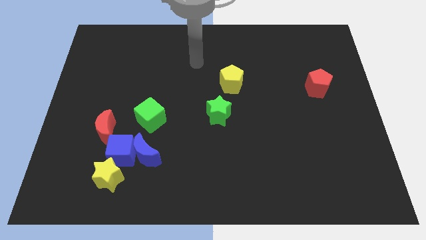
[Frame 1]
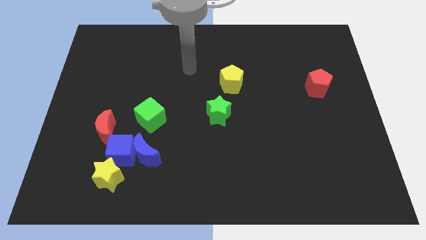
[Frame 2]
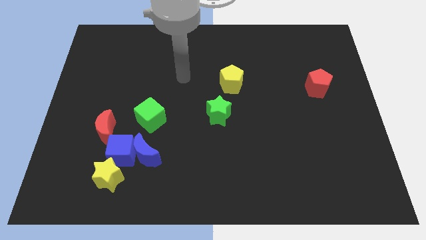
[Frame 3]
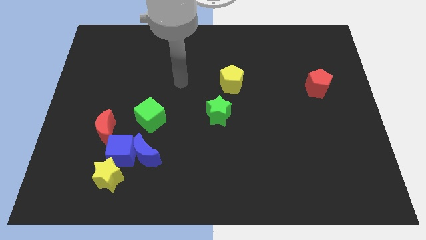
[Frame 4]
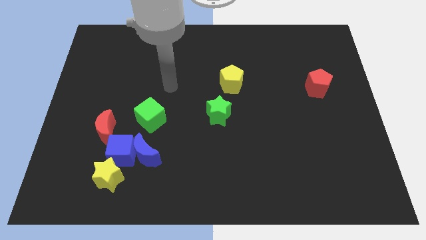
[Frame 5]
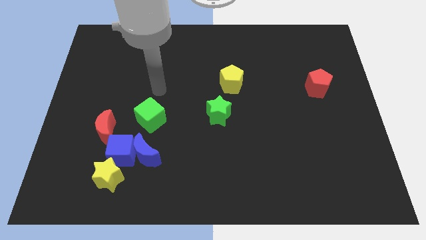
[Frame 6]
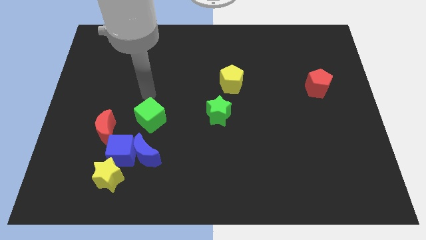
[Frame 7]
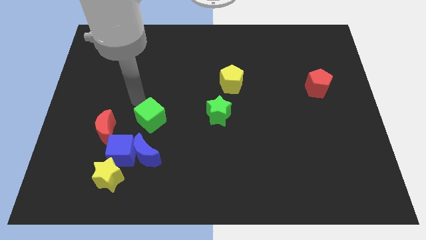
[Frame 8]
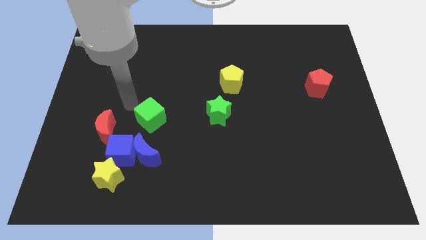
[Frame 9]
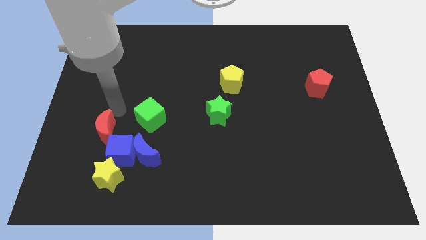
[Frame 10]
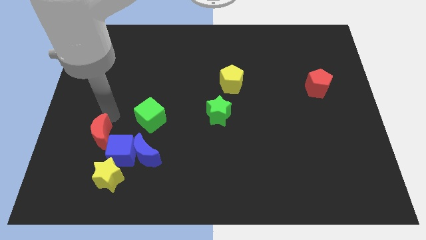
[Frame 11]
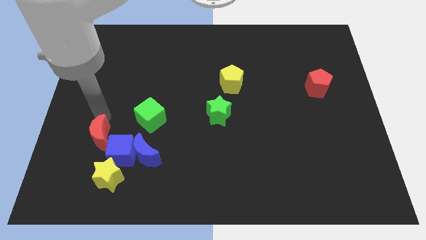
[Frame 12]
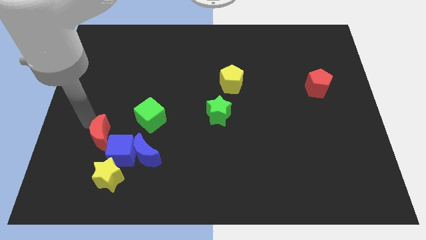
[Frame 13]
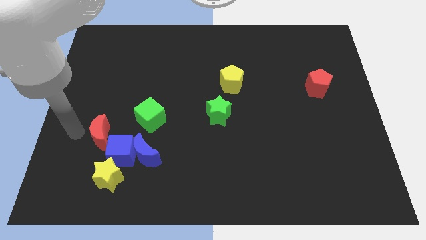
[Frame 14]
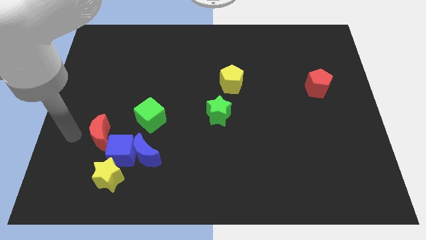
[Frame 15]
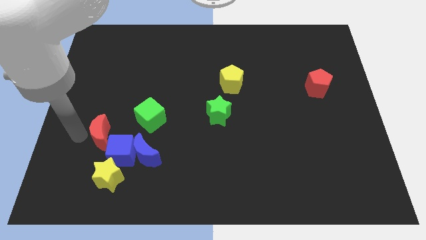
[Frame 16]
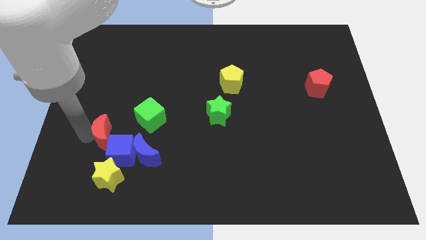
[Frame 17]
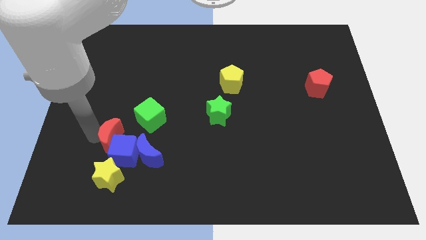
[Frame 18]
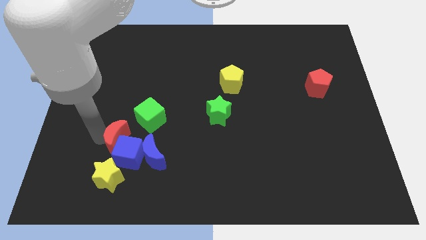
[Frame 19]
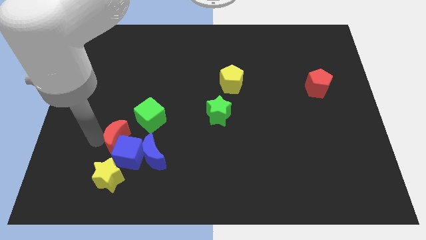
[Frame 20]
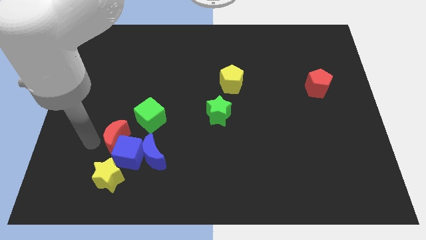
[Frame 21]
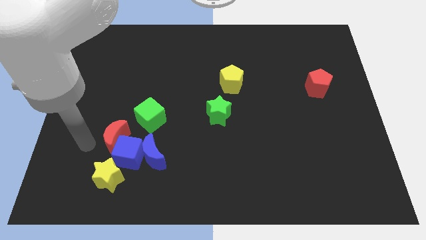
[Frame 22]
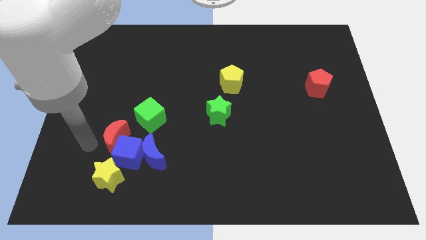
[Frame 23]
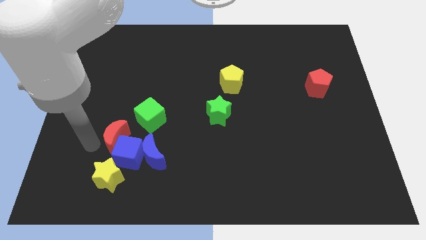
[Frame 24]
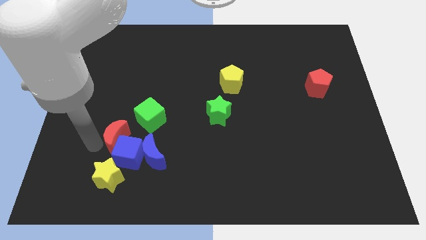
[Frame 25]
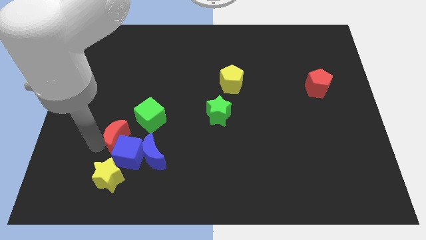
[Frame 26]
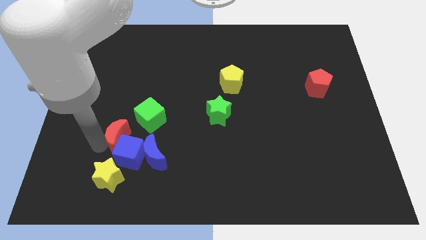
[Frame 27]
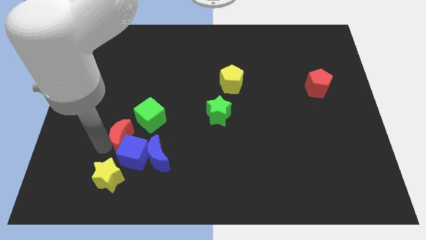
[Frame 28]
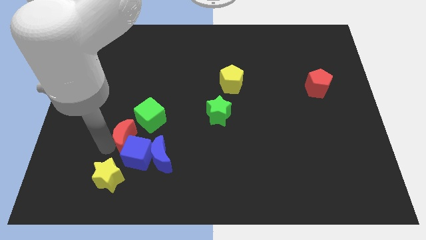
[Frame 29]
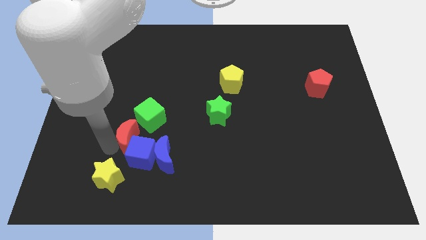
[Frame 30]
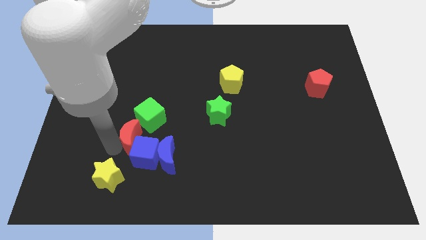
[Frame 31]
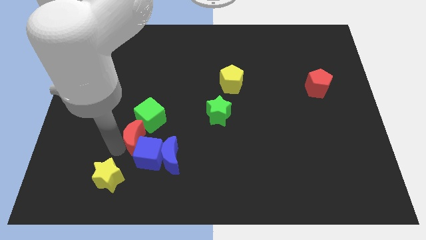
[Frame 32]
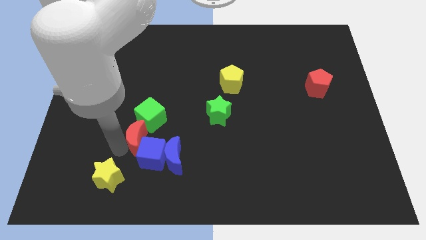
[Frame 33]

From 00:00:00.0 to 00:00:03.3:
push the red moon slightly right

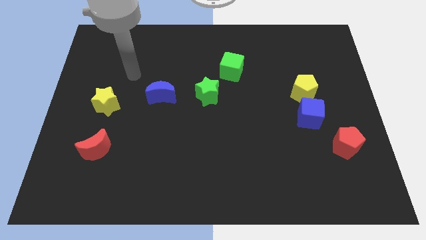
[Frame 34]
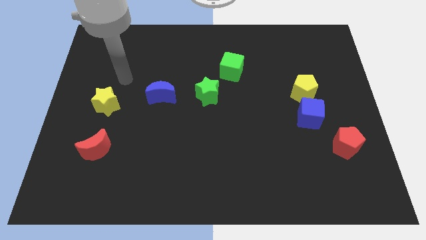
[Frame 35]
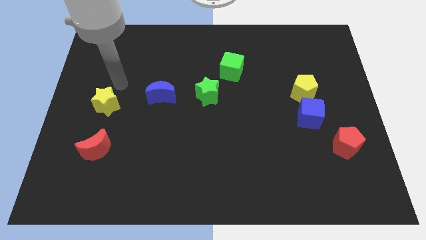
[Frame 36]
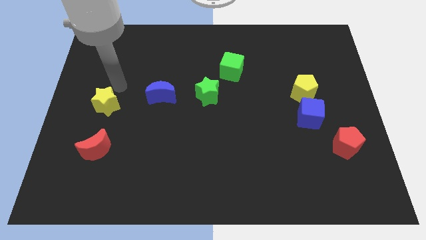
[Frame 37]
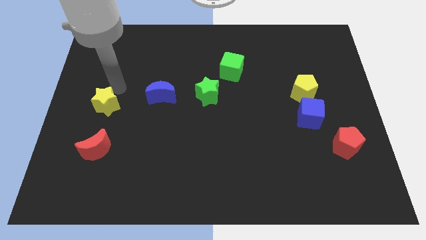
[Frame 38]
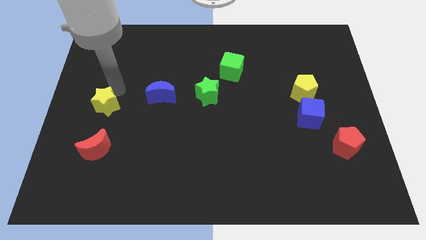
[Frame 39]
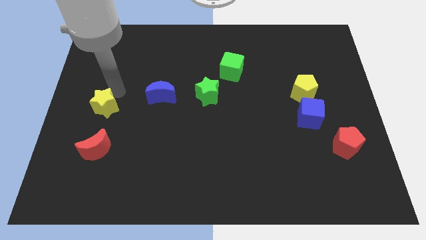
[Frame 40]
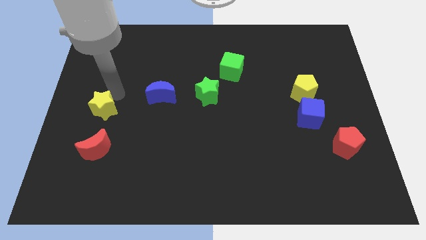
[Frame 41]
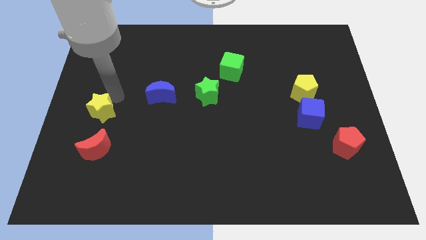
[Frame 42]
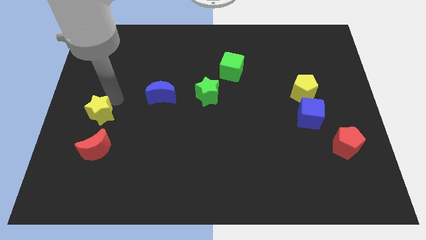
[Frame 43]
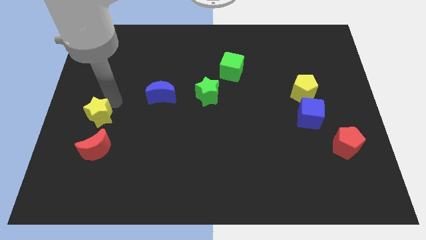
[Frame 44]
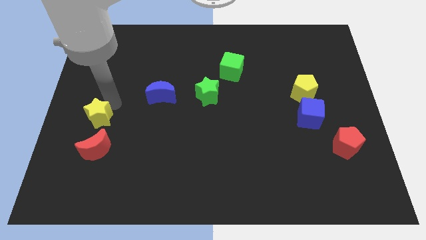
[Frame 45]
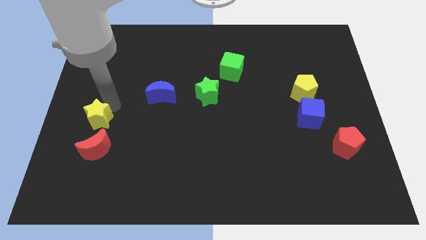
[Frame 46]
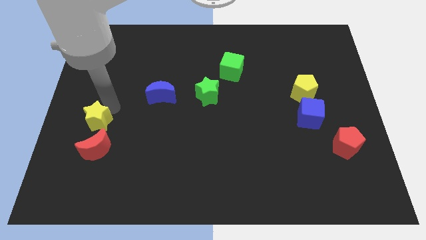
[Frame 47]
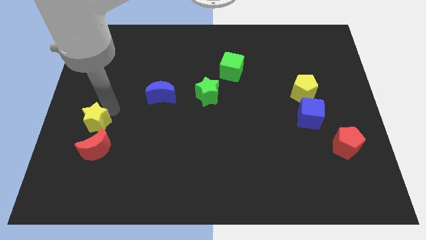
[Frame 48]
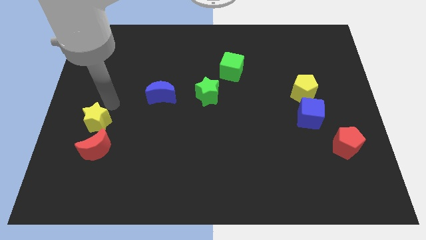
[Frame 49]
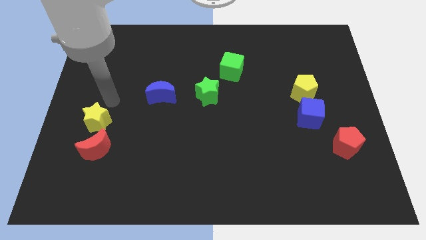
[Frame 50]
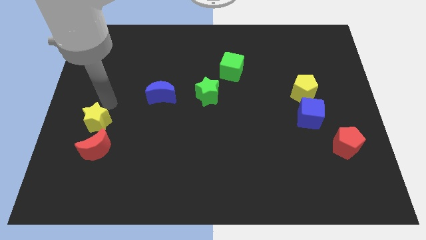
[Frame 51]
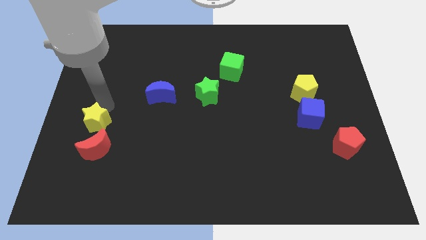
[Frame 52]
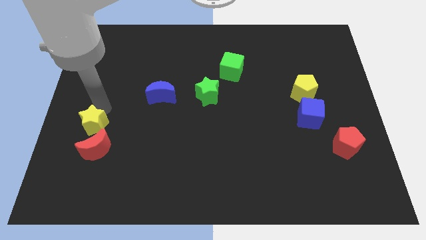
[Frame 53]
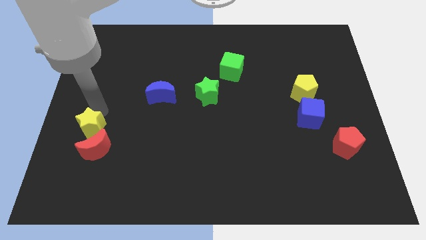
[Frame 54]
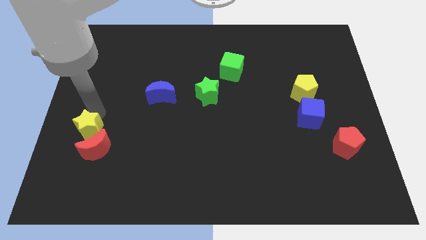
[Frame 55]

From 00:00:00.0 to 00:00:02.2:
push the yellow star slightly down

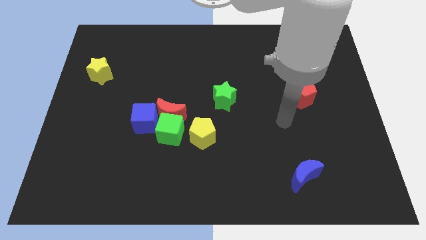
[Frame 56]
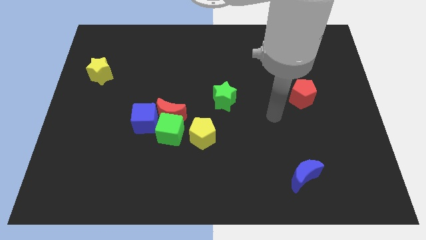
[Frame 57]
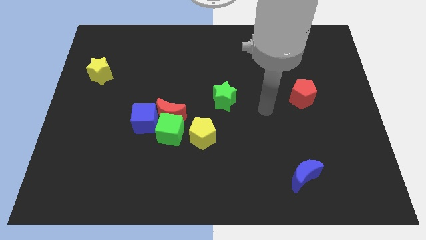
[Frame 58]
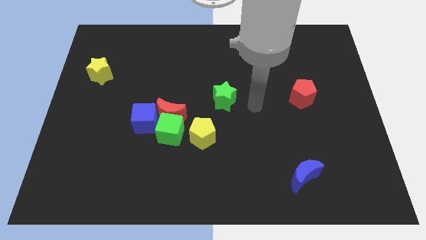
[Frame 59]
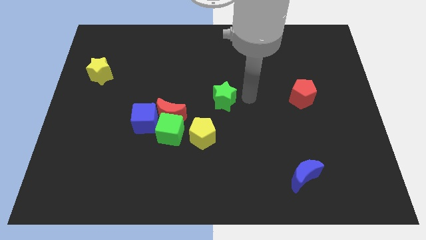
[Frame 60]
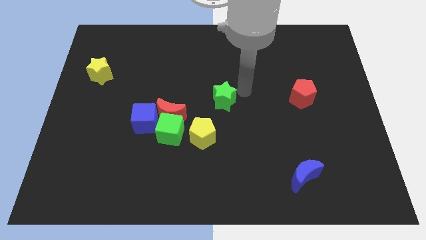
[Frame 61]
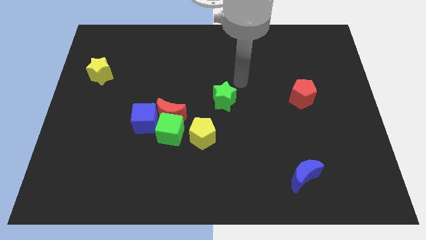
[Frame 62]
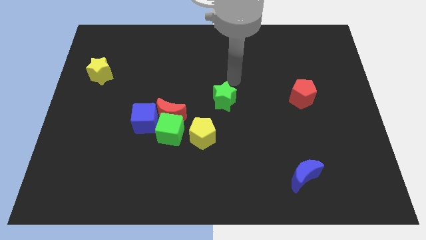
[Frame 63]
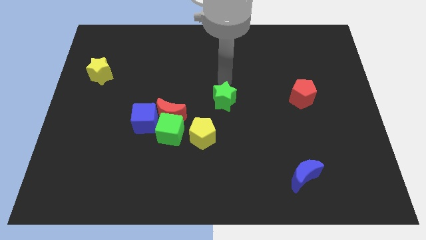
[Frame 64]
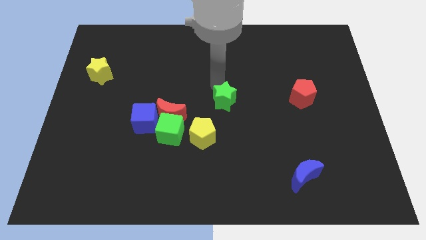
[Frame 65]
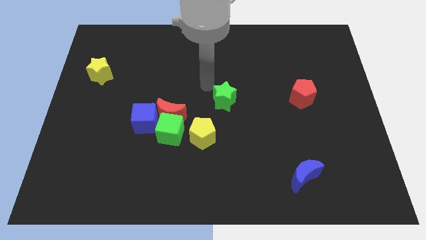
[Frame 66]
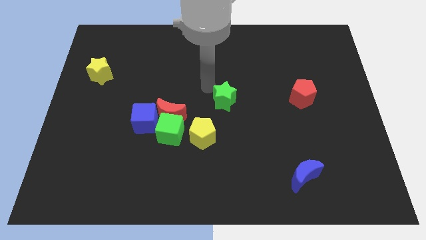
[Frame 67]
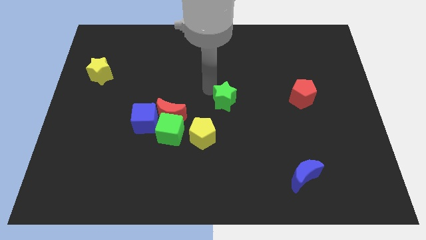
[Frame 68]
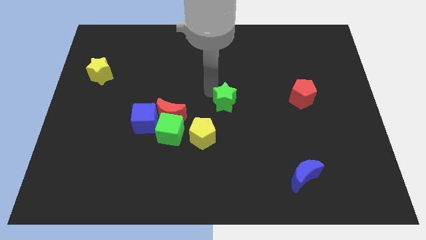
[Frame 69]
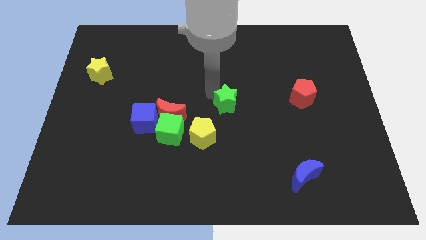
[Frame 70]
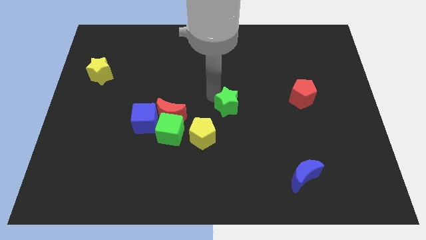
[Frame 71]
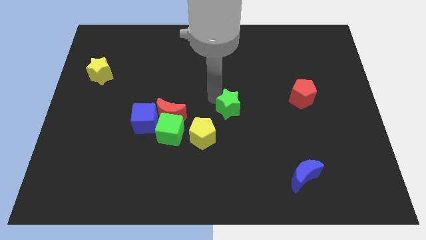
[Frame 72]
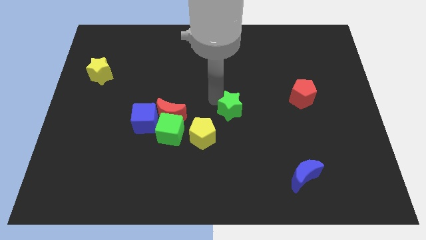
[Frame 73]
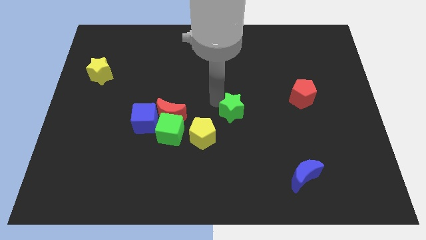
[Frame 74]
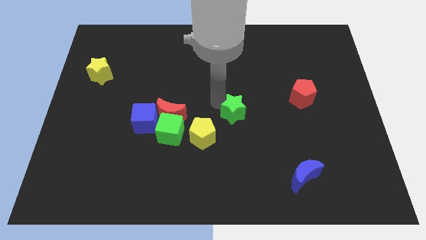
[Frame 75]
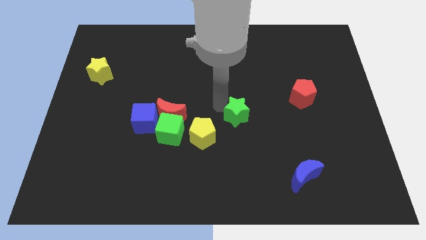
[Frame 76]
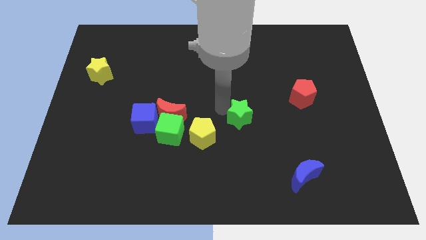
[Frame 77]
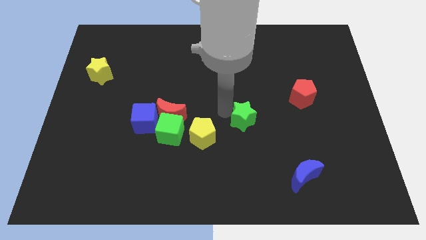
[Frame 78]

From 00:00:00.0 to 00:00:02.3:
slide the green star downwards and right slightly

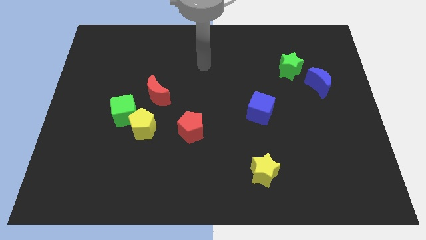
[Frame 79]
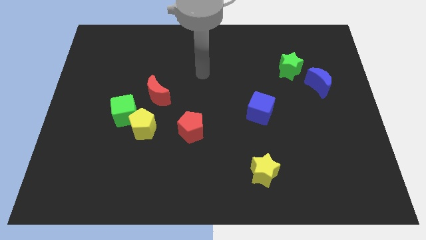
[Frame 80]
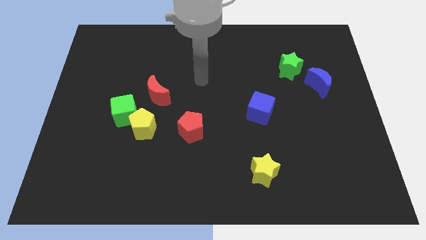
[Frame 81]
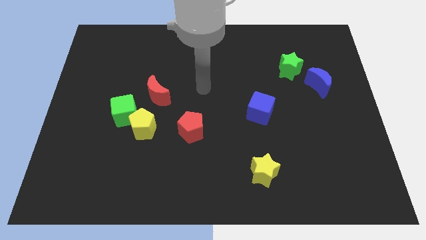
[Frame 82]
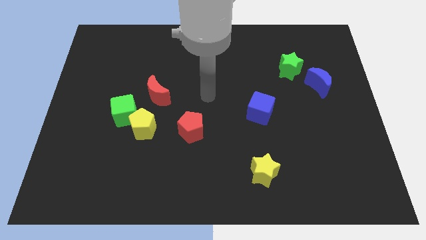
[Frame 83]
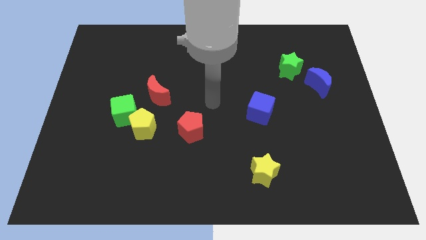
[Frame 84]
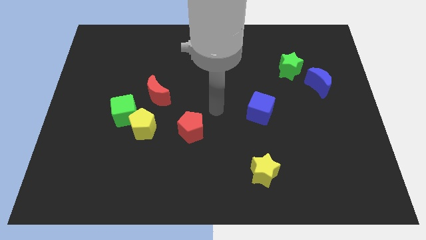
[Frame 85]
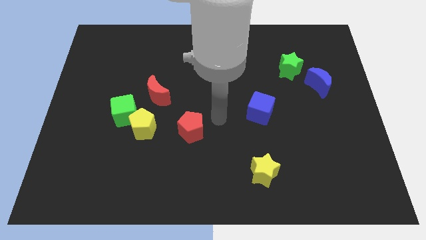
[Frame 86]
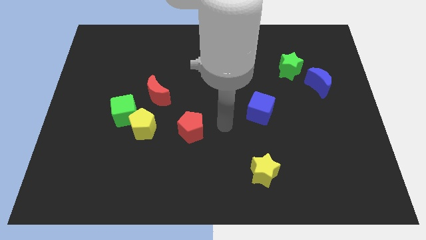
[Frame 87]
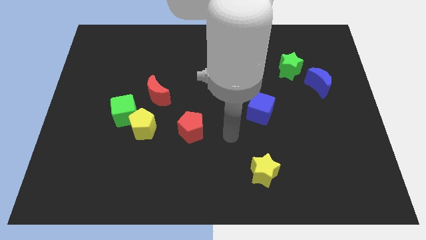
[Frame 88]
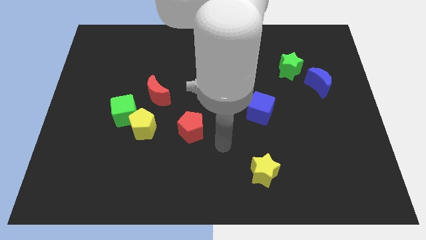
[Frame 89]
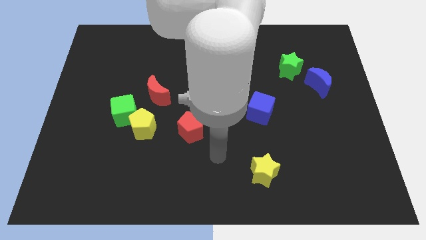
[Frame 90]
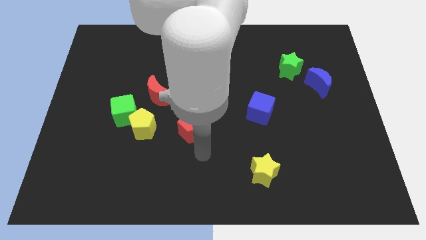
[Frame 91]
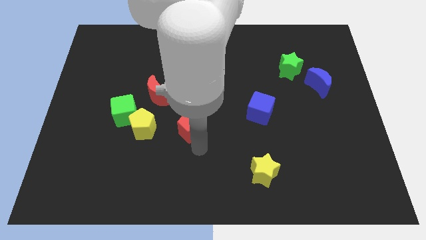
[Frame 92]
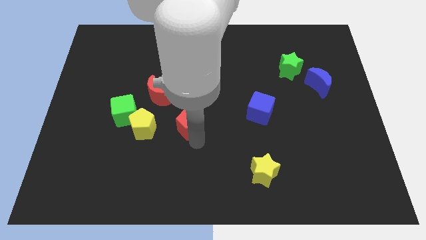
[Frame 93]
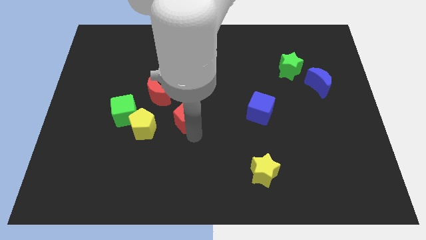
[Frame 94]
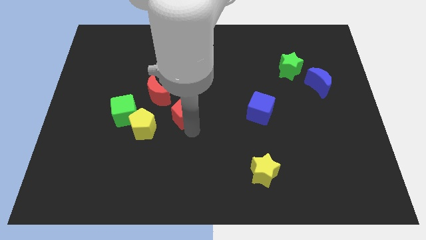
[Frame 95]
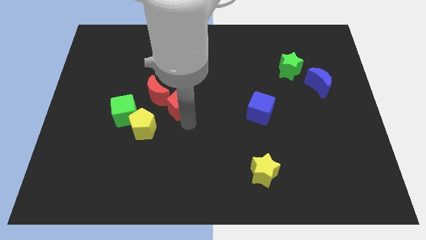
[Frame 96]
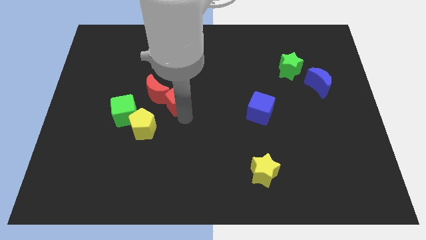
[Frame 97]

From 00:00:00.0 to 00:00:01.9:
slide the red pentagon upwards and to the left a bit
